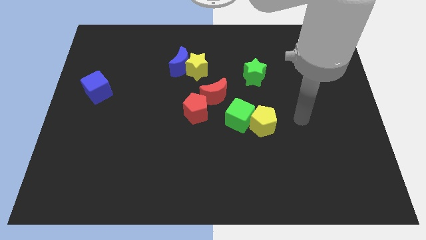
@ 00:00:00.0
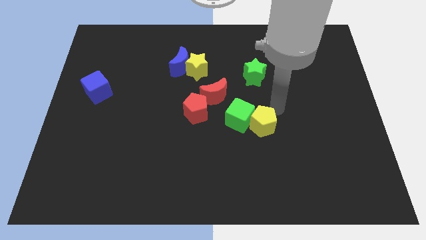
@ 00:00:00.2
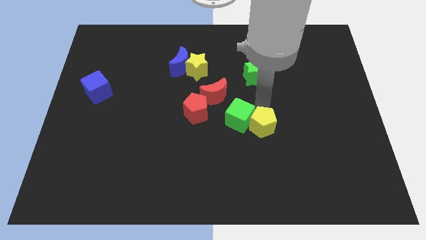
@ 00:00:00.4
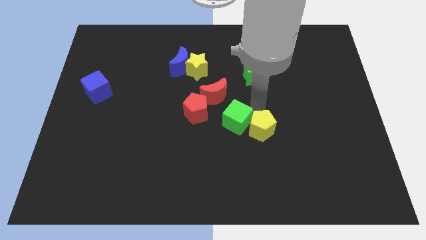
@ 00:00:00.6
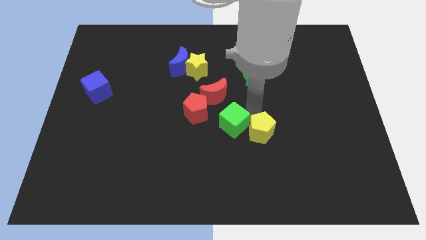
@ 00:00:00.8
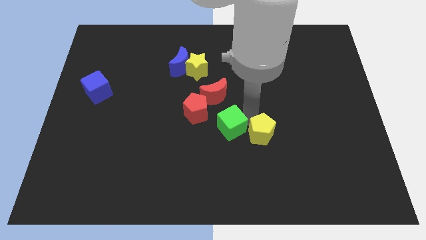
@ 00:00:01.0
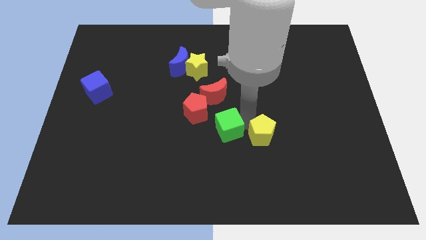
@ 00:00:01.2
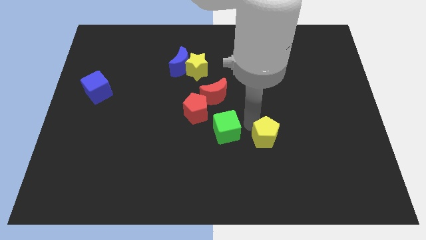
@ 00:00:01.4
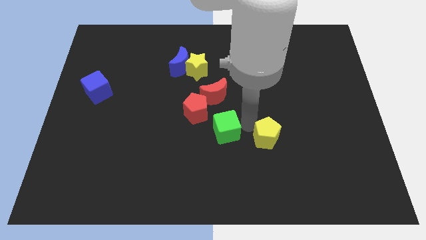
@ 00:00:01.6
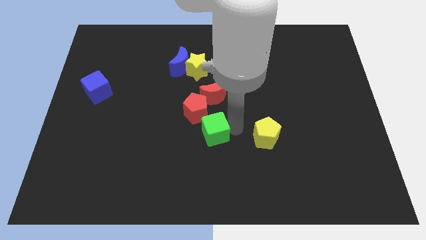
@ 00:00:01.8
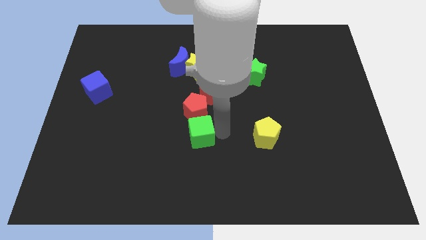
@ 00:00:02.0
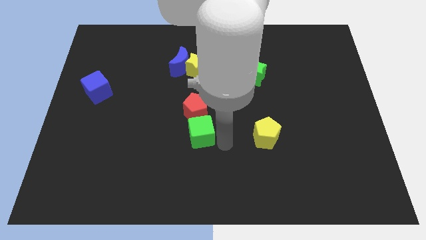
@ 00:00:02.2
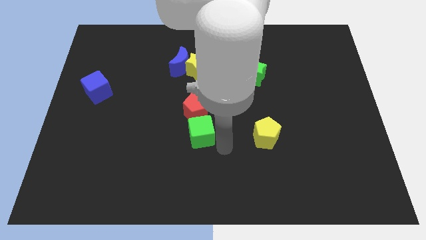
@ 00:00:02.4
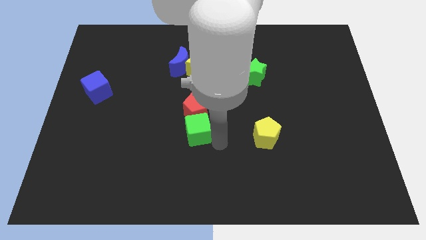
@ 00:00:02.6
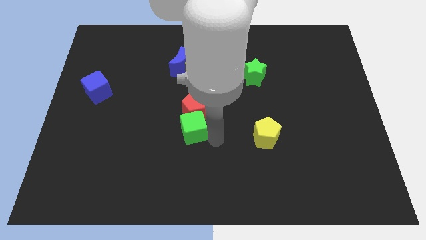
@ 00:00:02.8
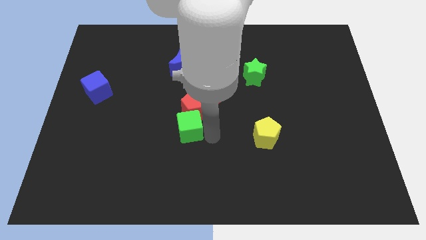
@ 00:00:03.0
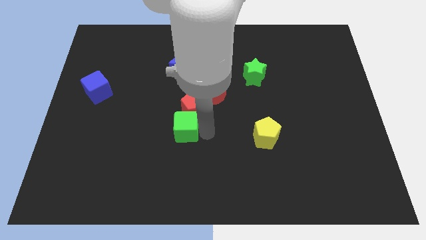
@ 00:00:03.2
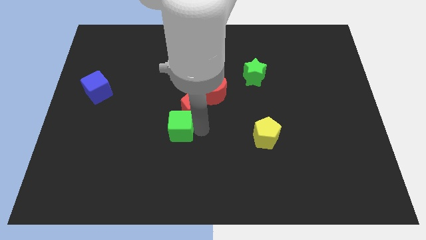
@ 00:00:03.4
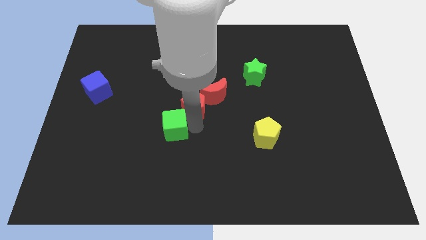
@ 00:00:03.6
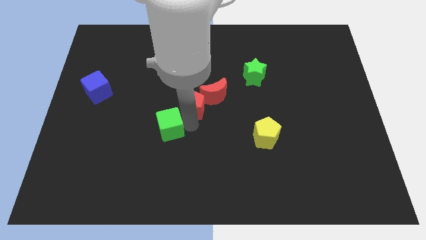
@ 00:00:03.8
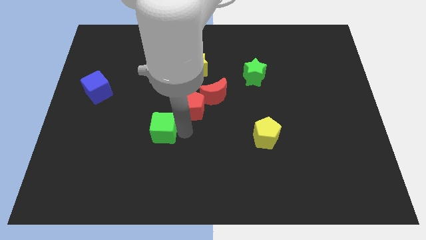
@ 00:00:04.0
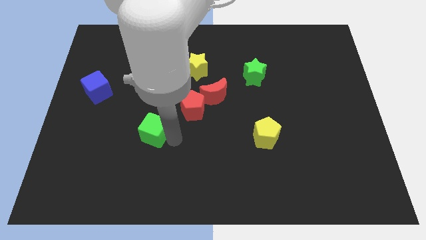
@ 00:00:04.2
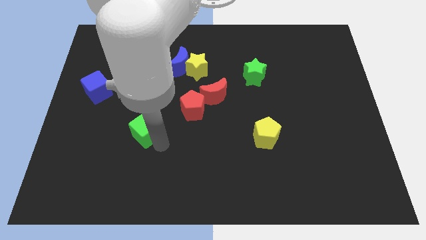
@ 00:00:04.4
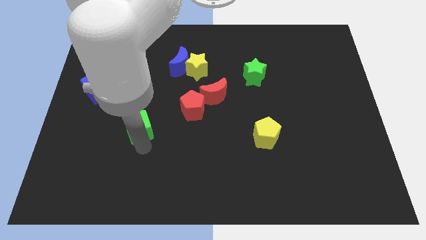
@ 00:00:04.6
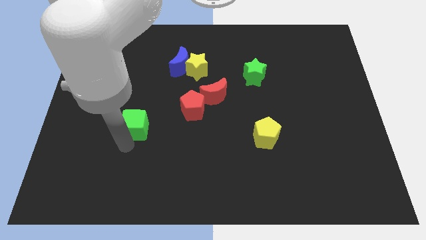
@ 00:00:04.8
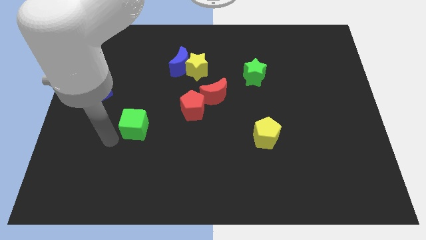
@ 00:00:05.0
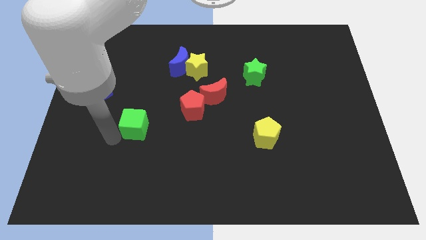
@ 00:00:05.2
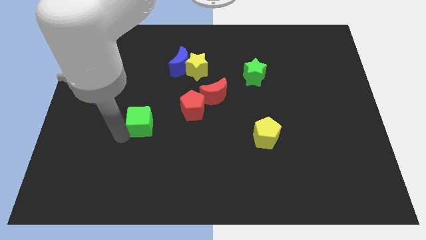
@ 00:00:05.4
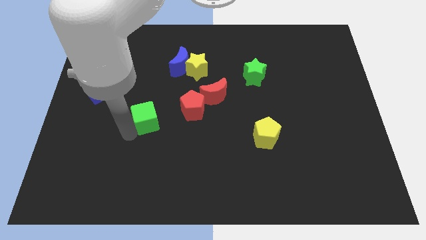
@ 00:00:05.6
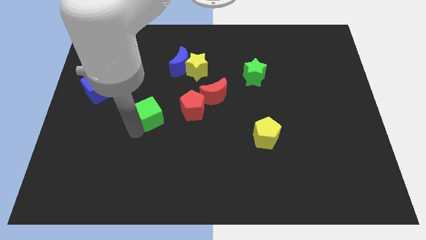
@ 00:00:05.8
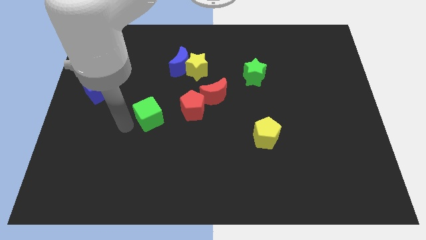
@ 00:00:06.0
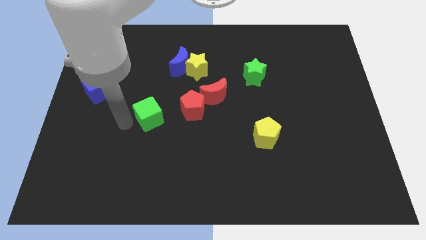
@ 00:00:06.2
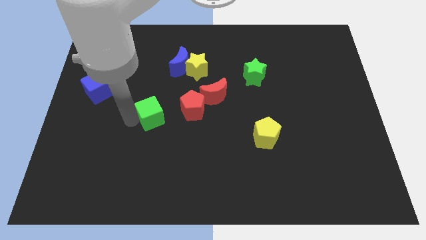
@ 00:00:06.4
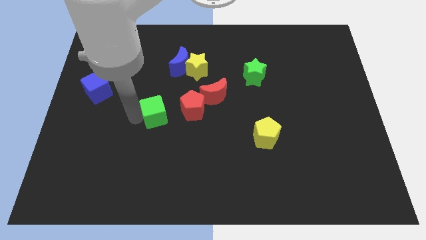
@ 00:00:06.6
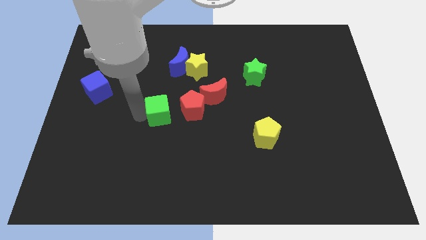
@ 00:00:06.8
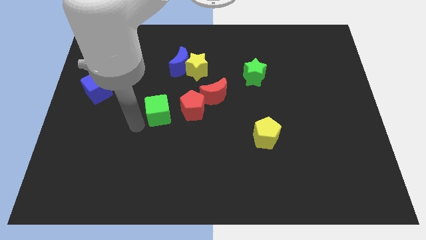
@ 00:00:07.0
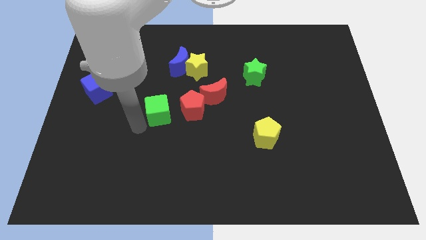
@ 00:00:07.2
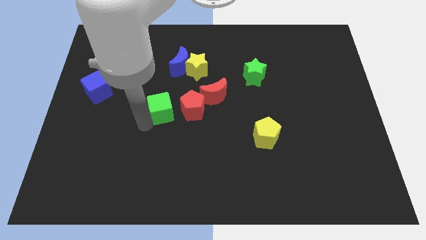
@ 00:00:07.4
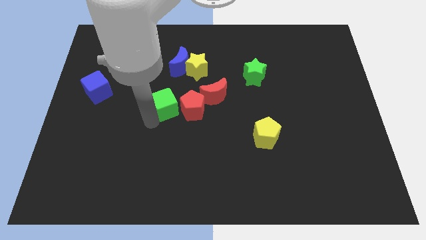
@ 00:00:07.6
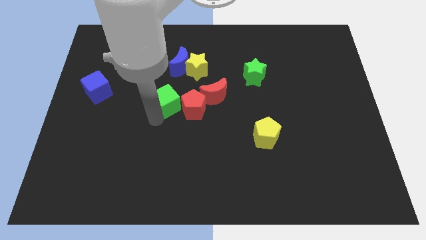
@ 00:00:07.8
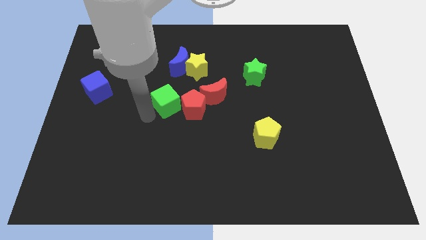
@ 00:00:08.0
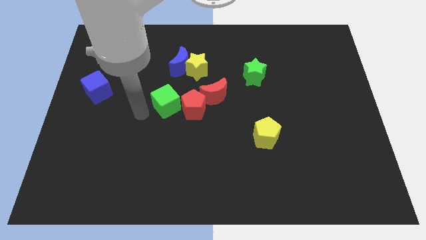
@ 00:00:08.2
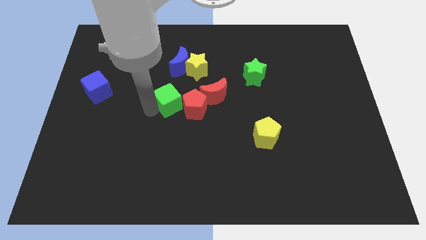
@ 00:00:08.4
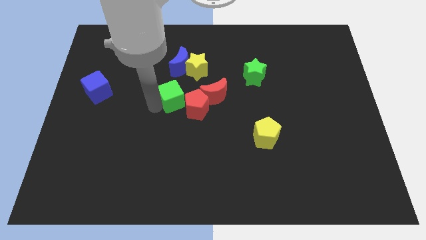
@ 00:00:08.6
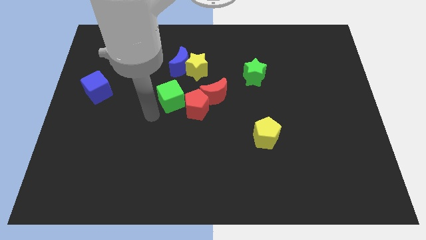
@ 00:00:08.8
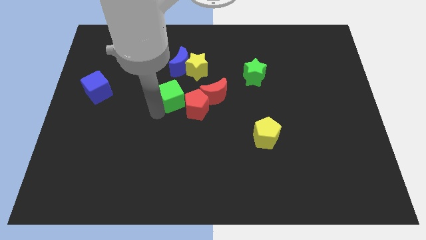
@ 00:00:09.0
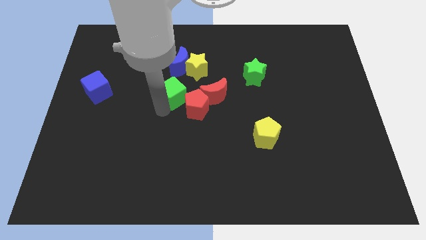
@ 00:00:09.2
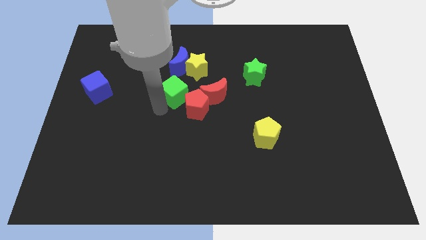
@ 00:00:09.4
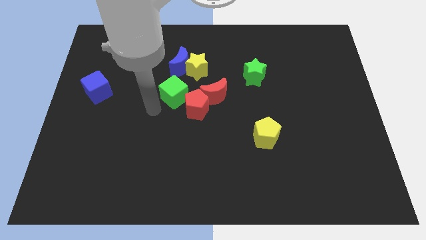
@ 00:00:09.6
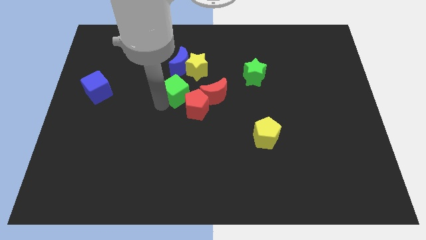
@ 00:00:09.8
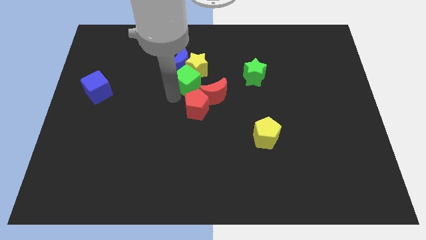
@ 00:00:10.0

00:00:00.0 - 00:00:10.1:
put the green cube towards the yellow star

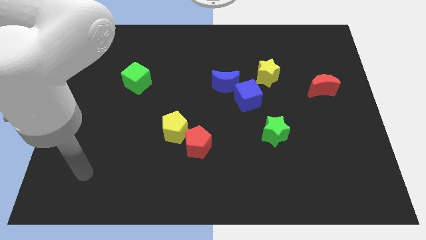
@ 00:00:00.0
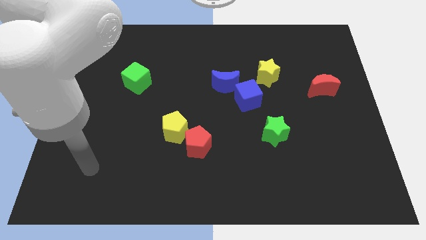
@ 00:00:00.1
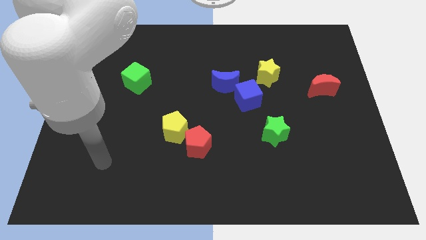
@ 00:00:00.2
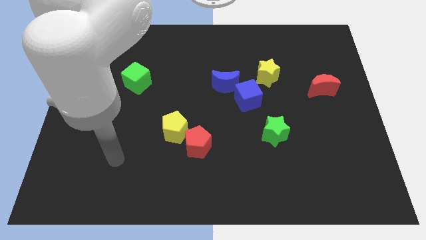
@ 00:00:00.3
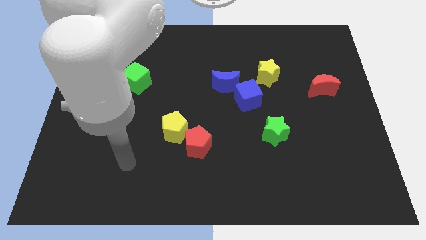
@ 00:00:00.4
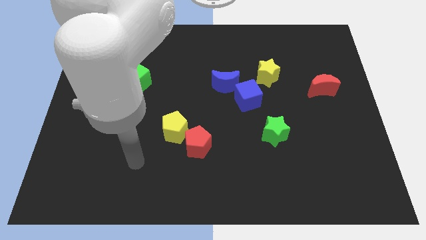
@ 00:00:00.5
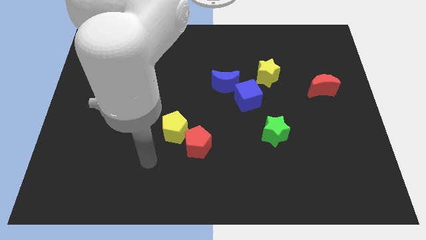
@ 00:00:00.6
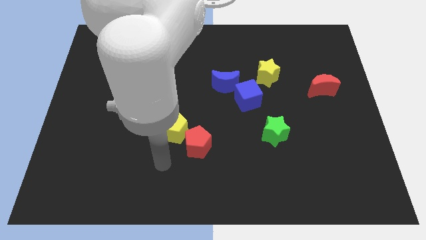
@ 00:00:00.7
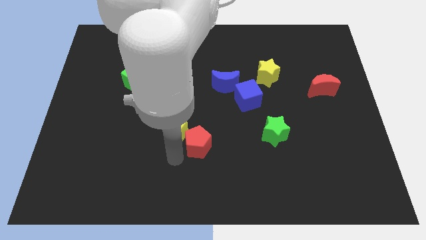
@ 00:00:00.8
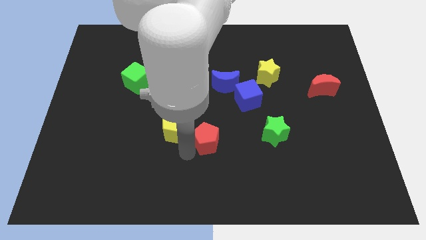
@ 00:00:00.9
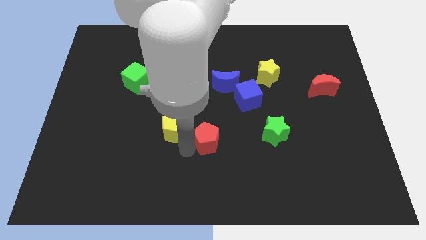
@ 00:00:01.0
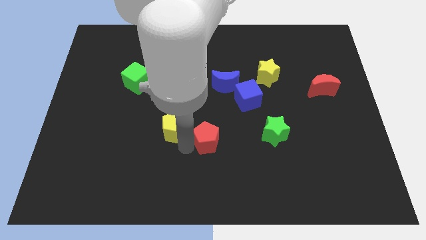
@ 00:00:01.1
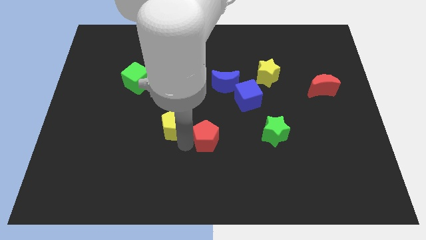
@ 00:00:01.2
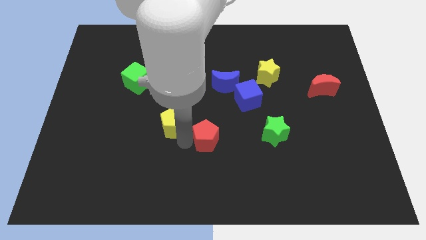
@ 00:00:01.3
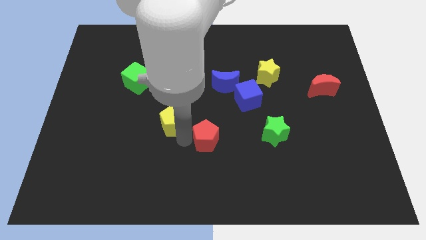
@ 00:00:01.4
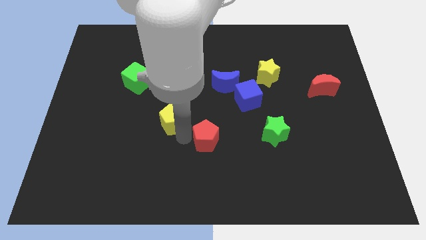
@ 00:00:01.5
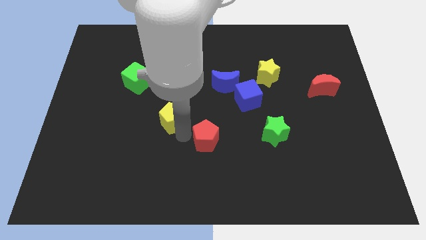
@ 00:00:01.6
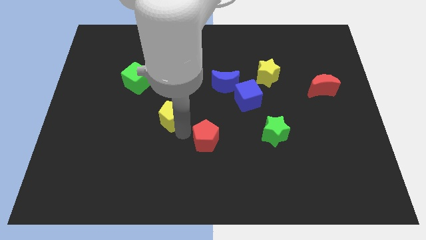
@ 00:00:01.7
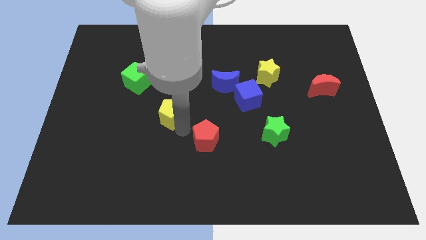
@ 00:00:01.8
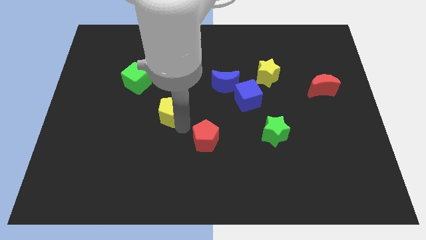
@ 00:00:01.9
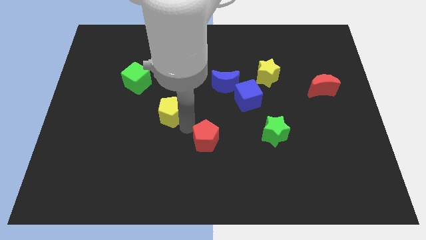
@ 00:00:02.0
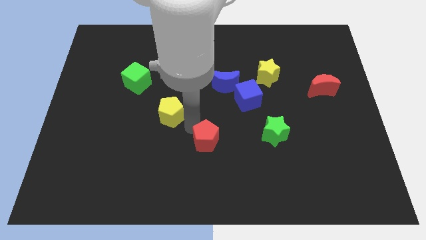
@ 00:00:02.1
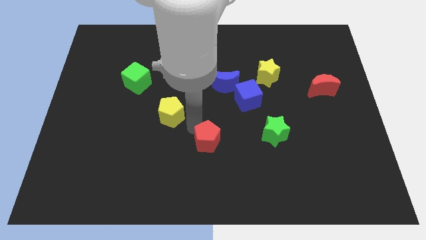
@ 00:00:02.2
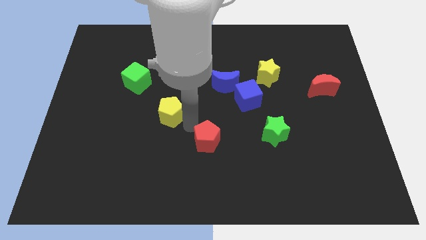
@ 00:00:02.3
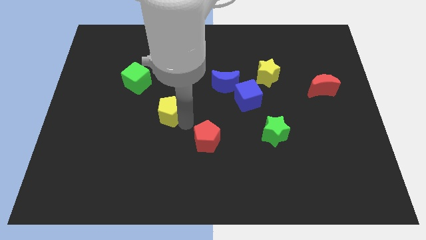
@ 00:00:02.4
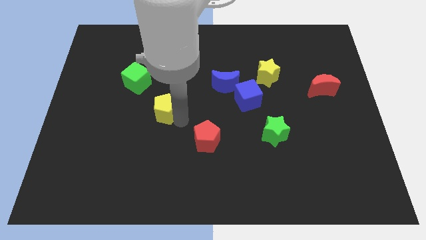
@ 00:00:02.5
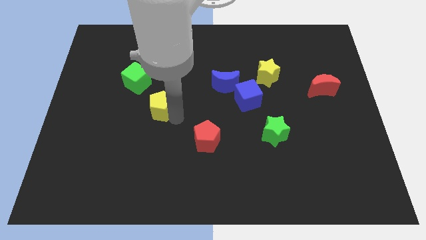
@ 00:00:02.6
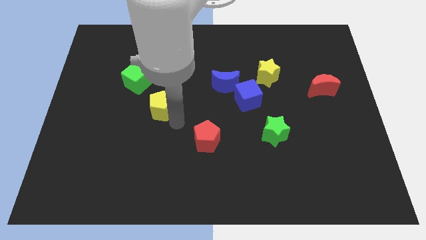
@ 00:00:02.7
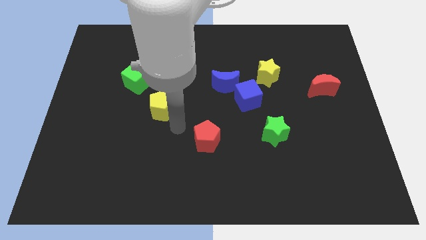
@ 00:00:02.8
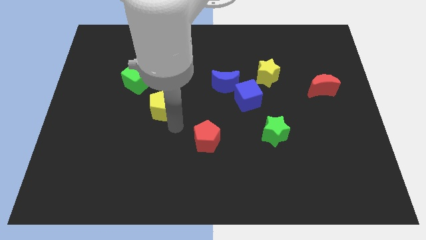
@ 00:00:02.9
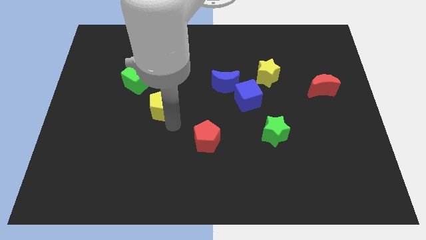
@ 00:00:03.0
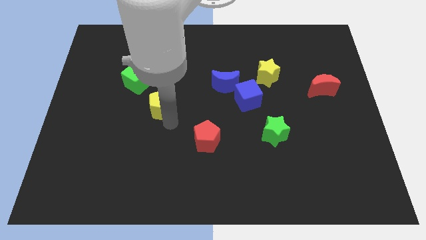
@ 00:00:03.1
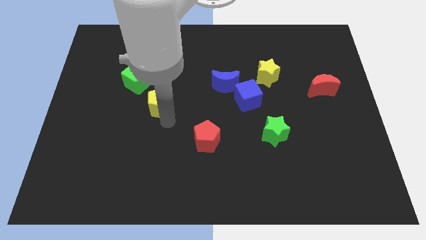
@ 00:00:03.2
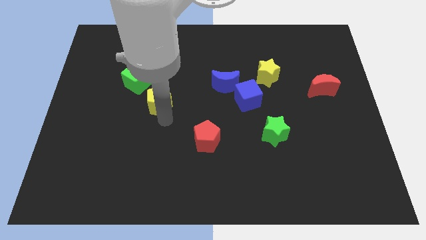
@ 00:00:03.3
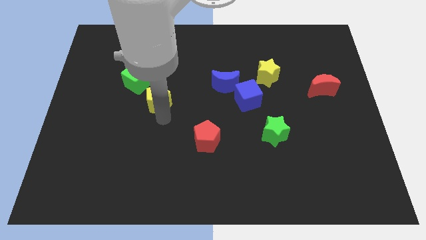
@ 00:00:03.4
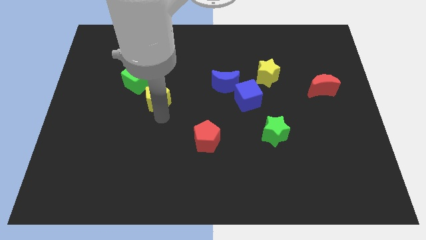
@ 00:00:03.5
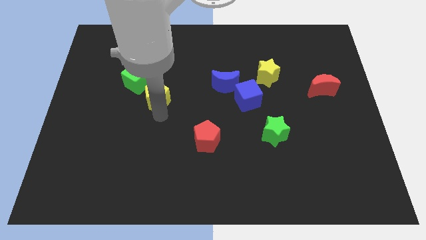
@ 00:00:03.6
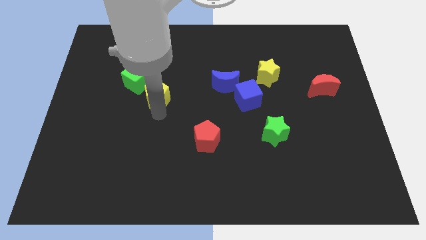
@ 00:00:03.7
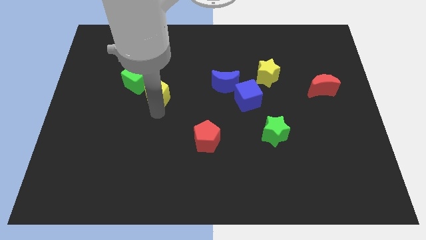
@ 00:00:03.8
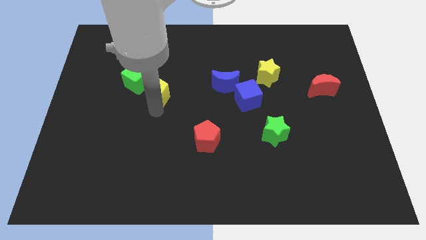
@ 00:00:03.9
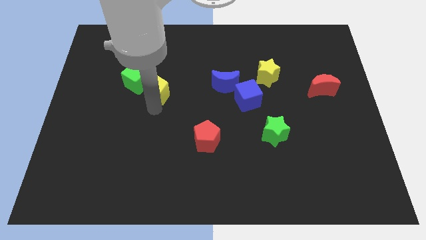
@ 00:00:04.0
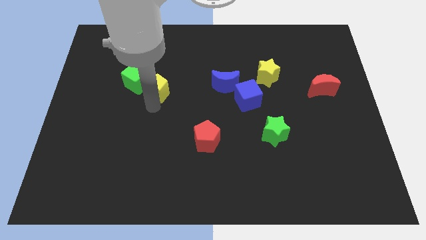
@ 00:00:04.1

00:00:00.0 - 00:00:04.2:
push the yellow pentagon to the green cube
